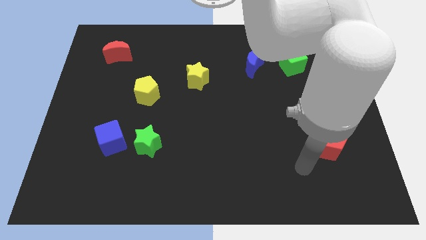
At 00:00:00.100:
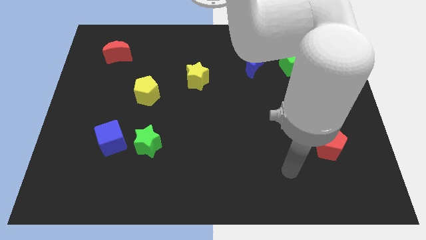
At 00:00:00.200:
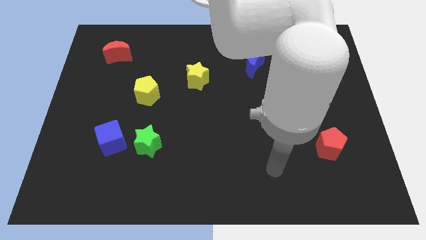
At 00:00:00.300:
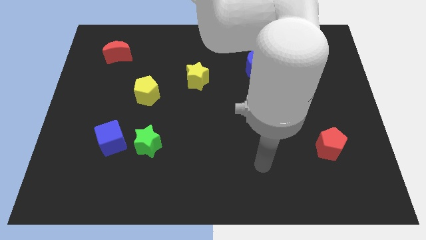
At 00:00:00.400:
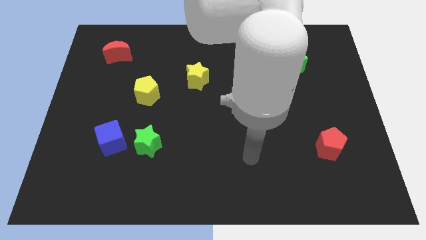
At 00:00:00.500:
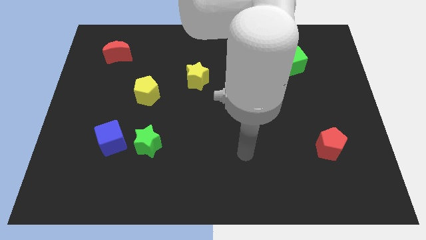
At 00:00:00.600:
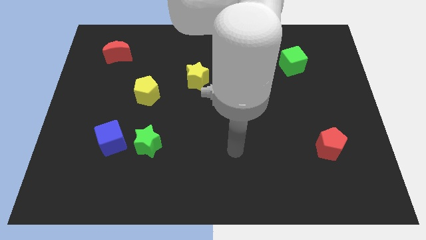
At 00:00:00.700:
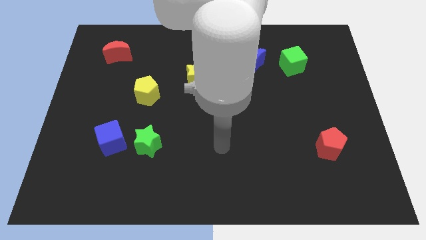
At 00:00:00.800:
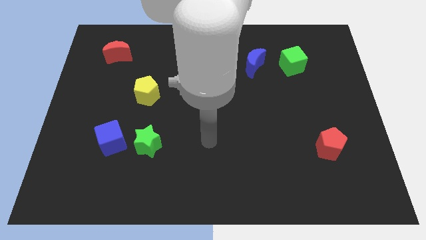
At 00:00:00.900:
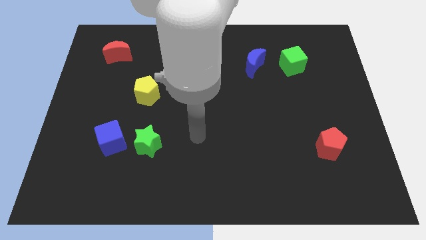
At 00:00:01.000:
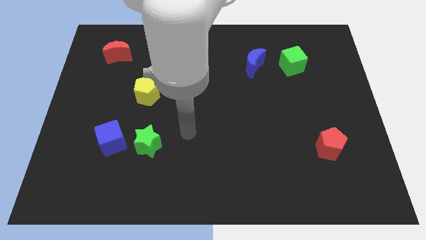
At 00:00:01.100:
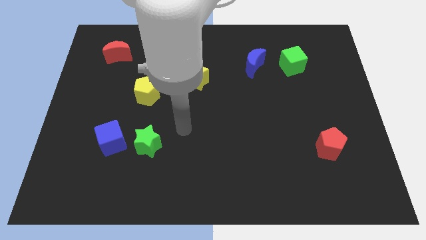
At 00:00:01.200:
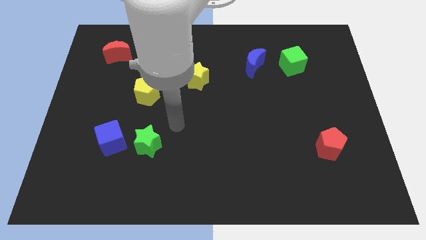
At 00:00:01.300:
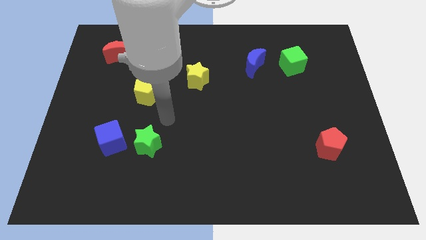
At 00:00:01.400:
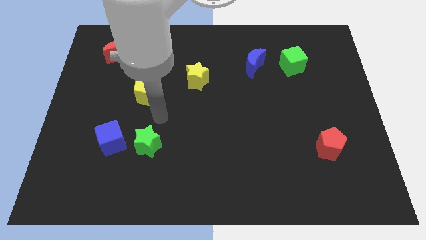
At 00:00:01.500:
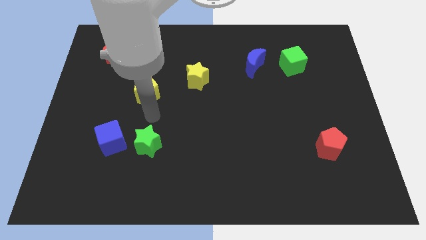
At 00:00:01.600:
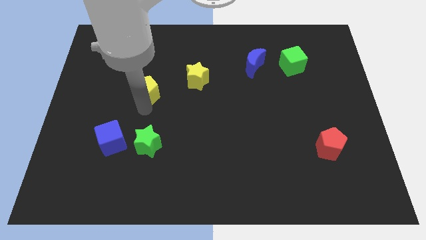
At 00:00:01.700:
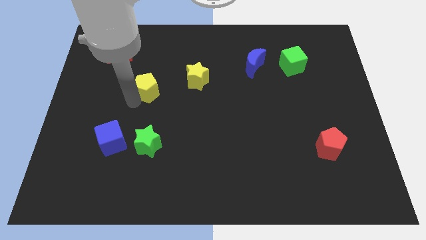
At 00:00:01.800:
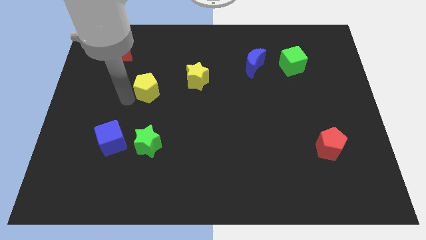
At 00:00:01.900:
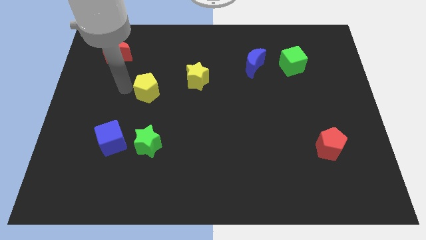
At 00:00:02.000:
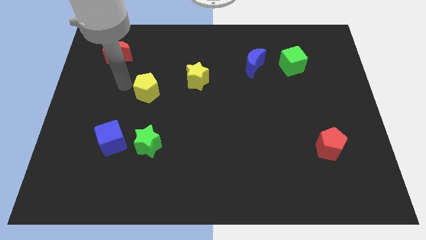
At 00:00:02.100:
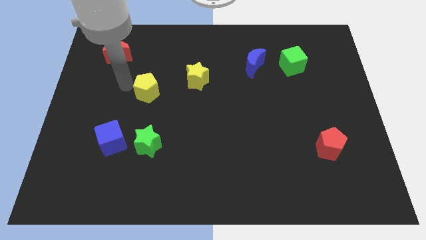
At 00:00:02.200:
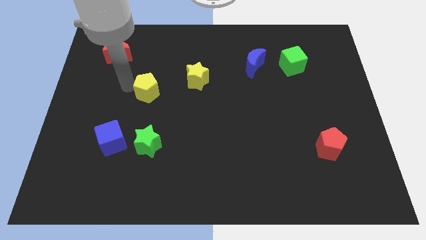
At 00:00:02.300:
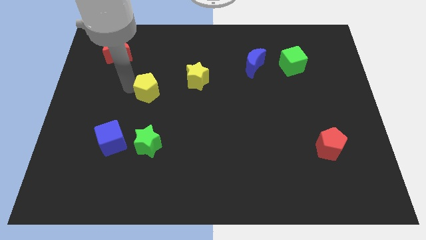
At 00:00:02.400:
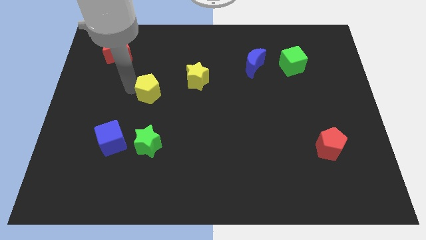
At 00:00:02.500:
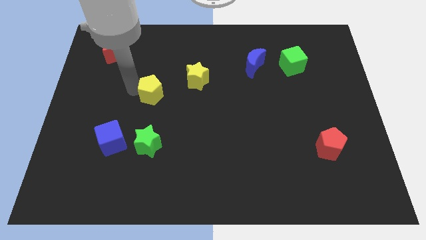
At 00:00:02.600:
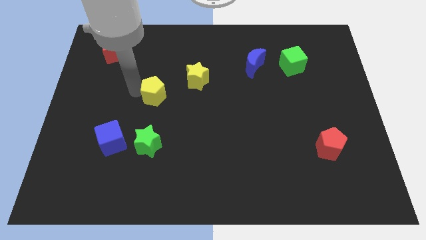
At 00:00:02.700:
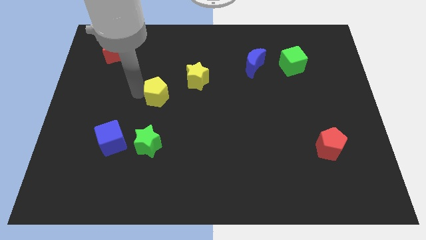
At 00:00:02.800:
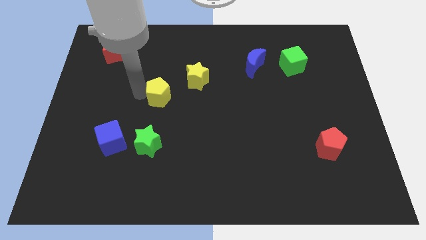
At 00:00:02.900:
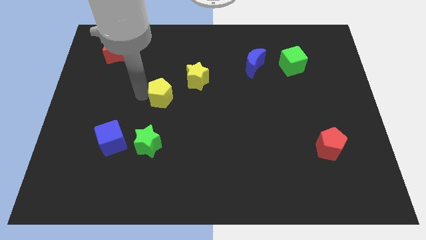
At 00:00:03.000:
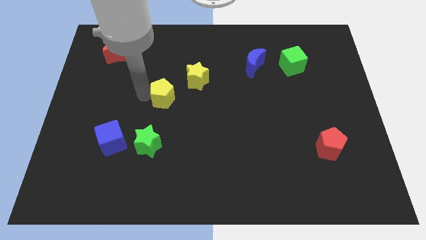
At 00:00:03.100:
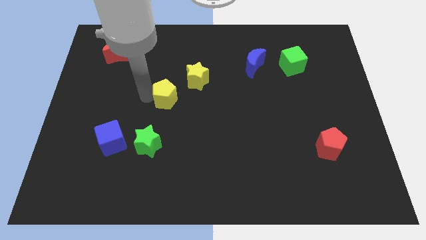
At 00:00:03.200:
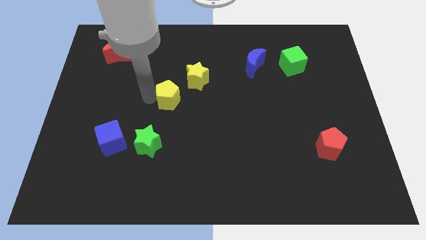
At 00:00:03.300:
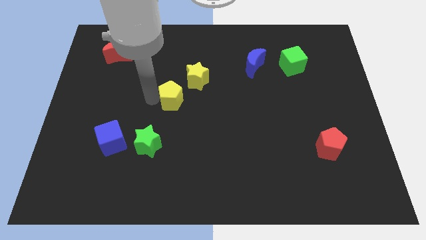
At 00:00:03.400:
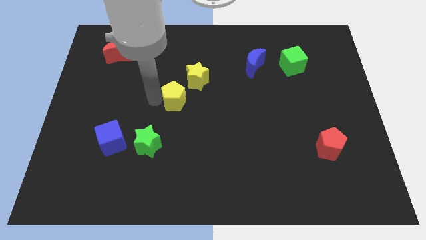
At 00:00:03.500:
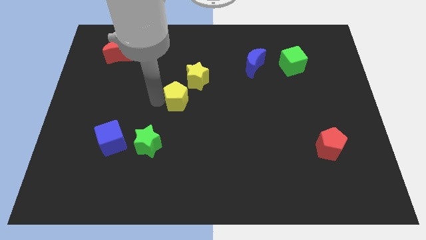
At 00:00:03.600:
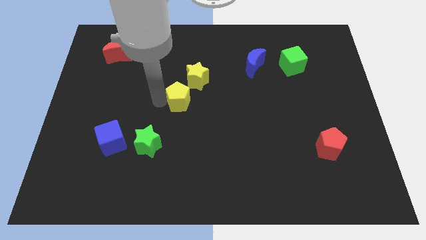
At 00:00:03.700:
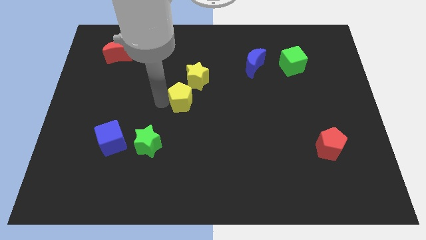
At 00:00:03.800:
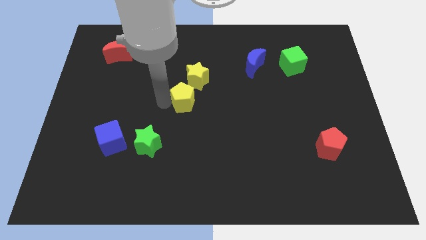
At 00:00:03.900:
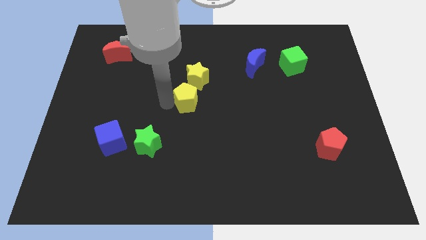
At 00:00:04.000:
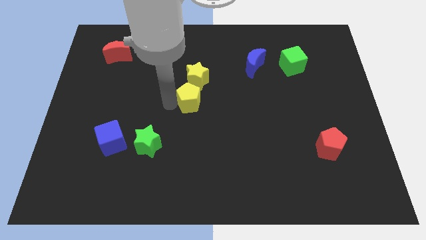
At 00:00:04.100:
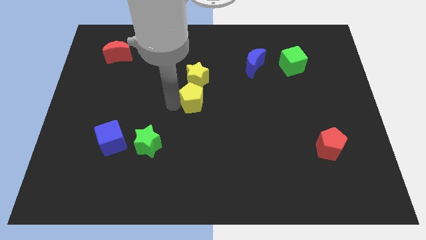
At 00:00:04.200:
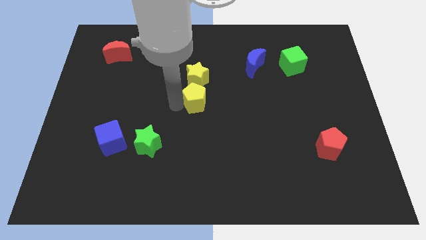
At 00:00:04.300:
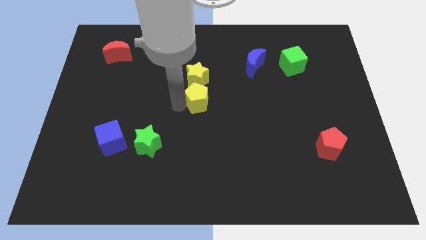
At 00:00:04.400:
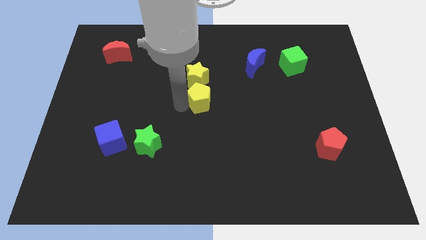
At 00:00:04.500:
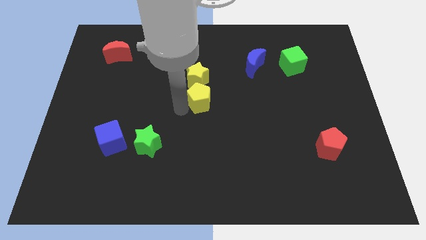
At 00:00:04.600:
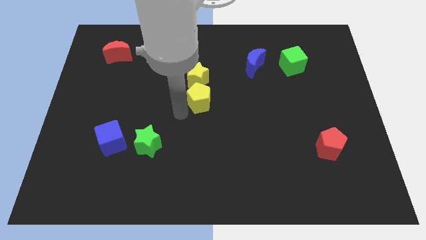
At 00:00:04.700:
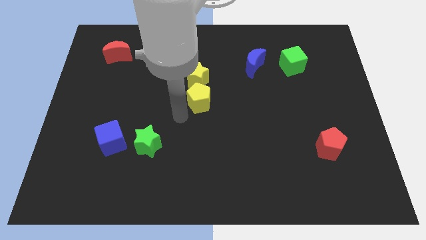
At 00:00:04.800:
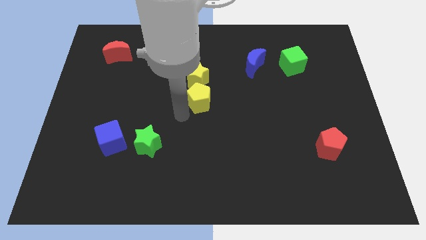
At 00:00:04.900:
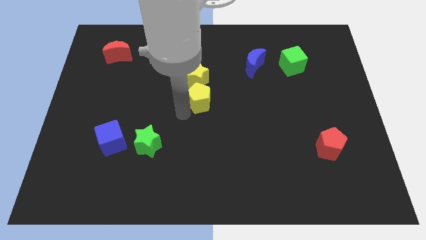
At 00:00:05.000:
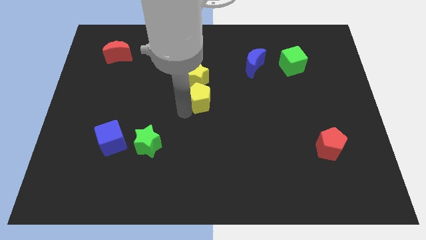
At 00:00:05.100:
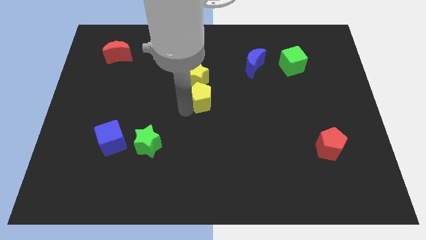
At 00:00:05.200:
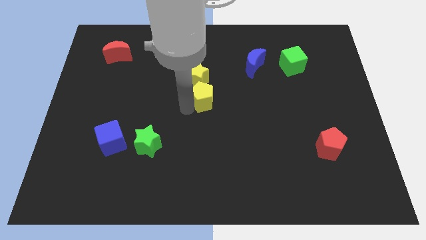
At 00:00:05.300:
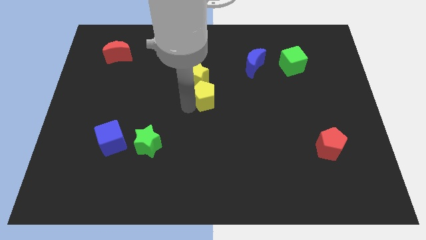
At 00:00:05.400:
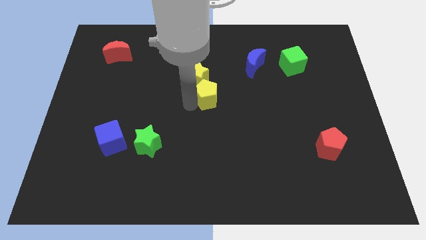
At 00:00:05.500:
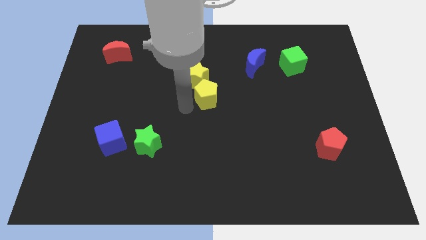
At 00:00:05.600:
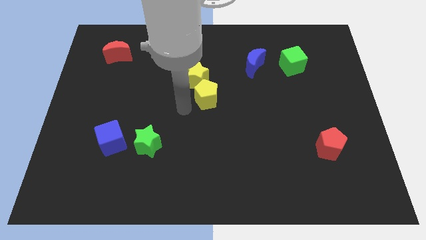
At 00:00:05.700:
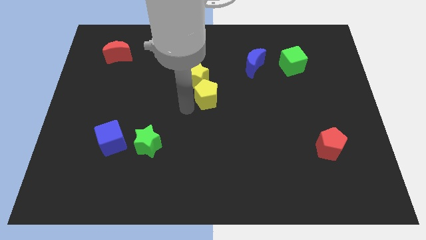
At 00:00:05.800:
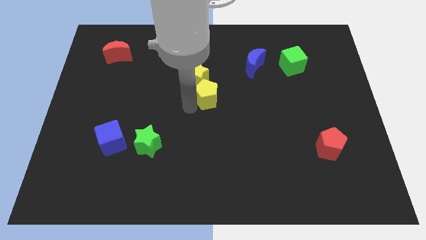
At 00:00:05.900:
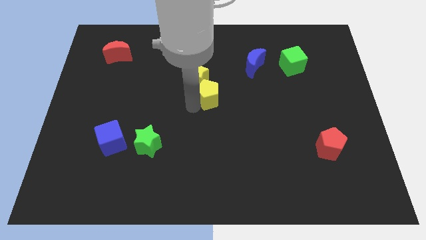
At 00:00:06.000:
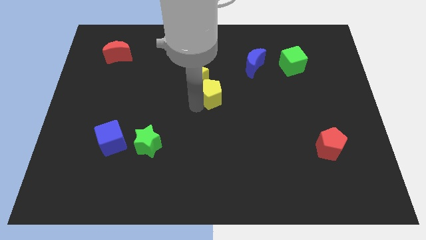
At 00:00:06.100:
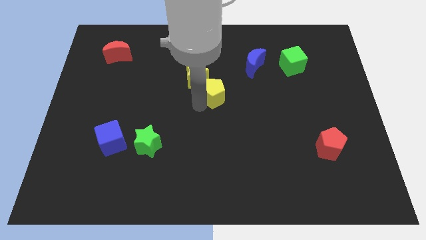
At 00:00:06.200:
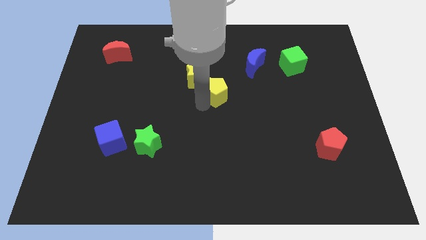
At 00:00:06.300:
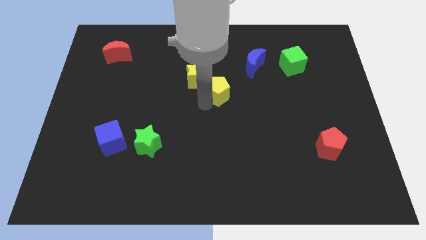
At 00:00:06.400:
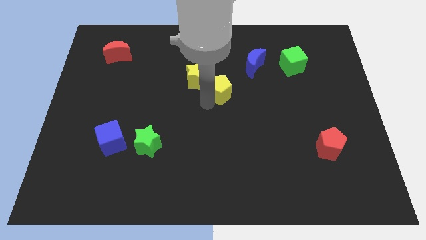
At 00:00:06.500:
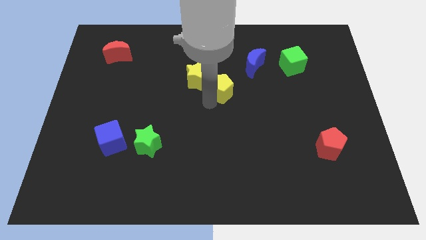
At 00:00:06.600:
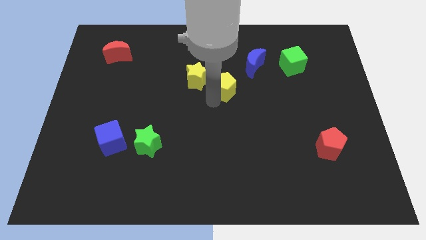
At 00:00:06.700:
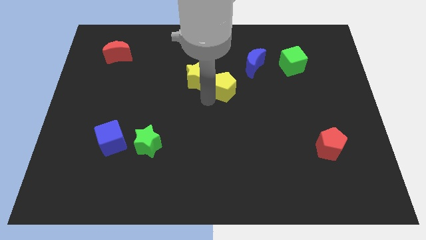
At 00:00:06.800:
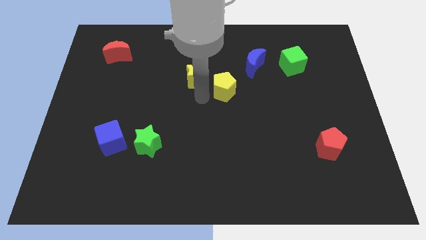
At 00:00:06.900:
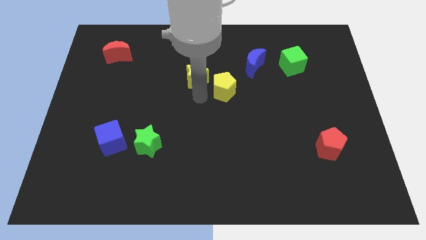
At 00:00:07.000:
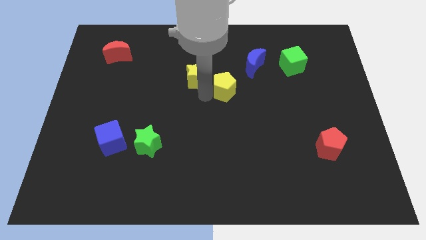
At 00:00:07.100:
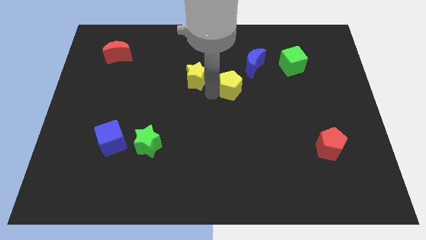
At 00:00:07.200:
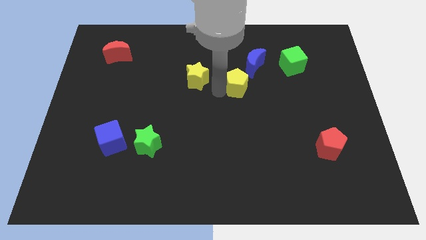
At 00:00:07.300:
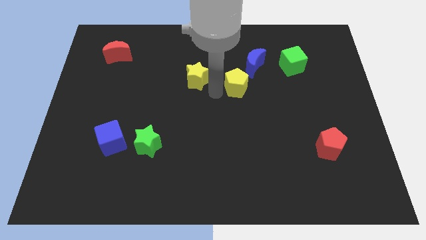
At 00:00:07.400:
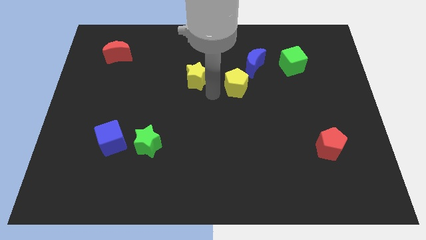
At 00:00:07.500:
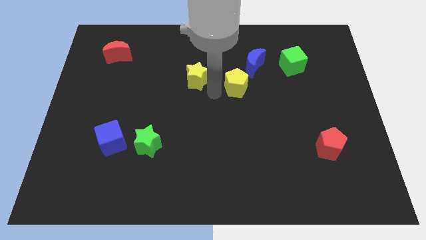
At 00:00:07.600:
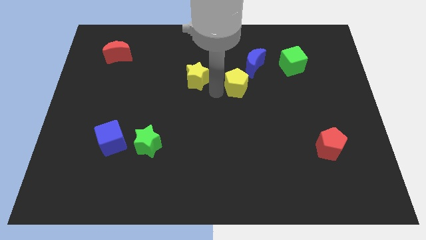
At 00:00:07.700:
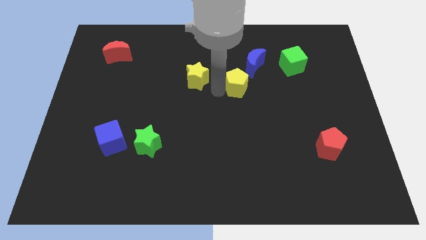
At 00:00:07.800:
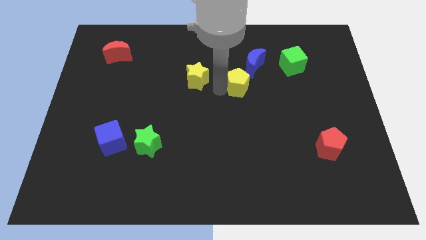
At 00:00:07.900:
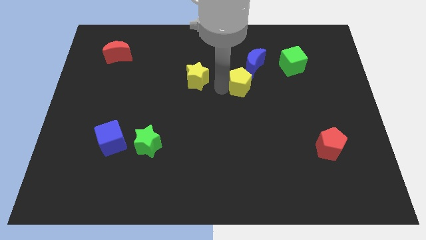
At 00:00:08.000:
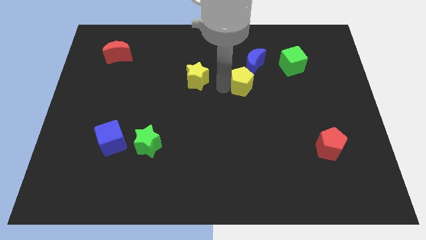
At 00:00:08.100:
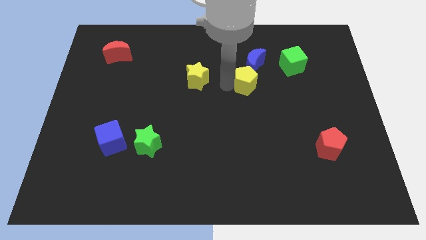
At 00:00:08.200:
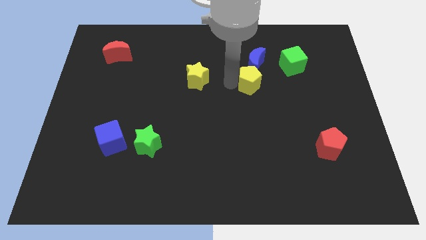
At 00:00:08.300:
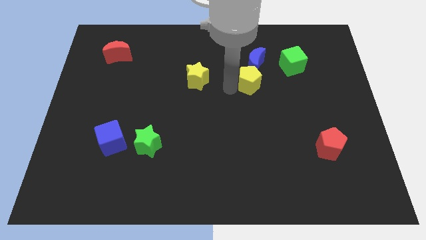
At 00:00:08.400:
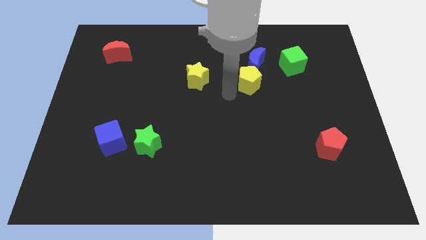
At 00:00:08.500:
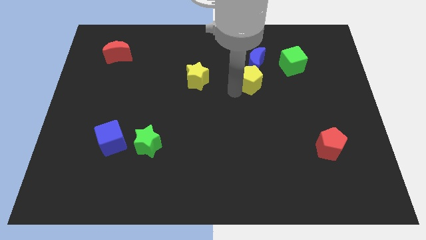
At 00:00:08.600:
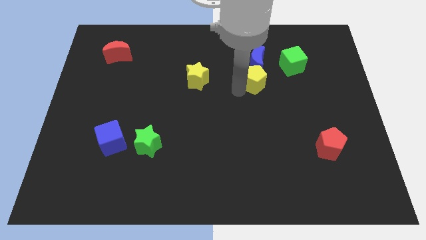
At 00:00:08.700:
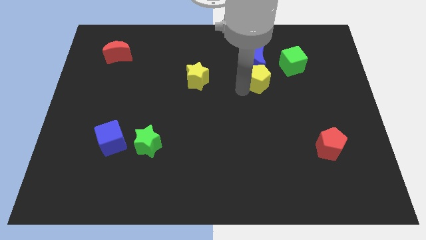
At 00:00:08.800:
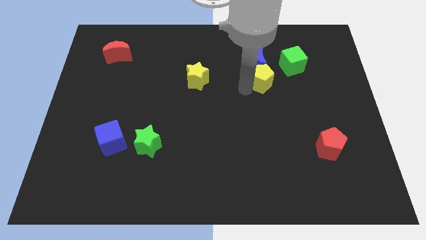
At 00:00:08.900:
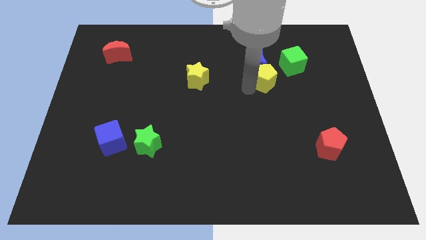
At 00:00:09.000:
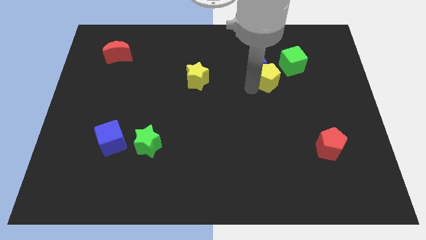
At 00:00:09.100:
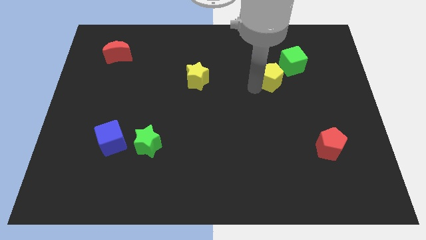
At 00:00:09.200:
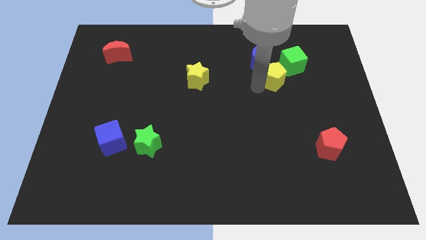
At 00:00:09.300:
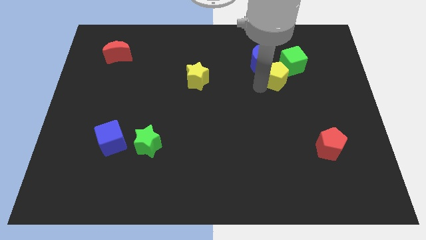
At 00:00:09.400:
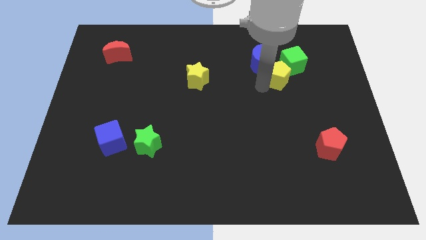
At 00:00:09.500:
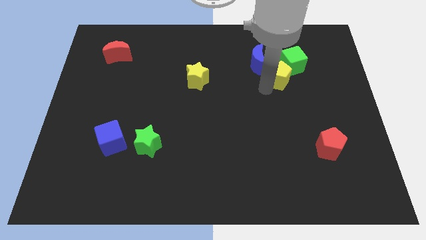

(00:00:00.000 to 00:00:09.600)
push the yellow pentagon to the green cube
